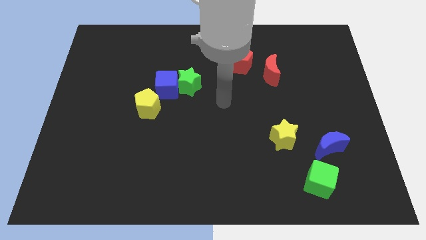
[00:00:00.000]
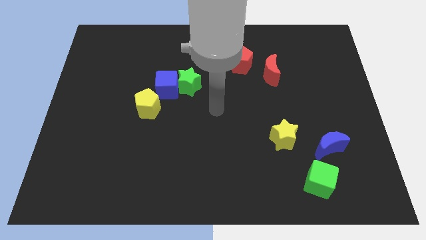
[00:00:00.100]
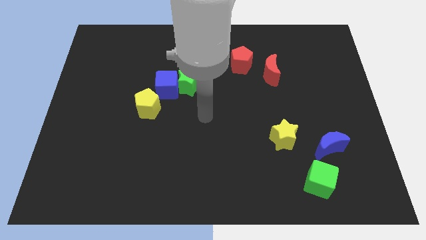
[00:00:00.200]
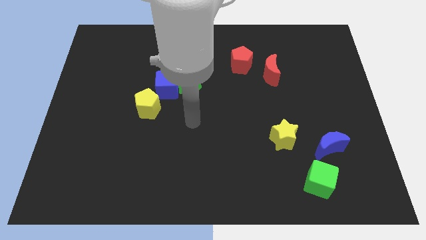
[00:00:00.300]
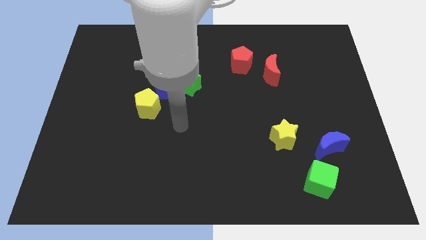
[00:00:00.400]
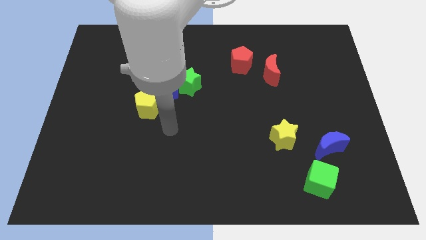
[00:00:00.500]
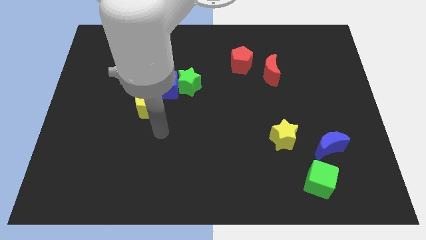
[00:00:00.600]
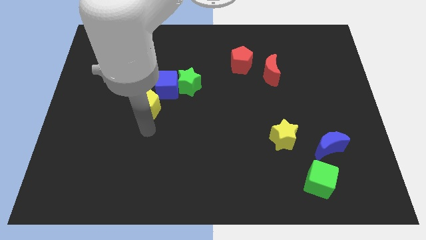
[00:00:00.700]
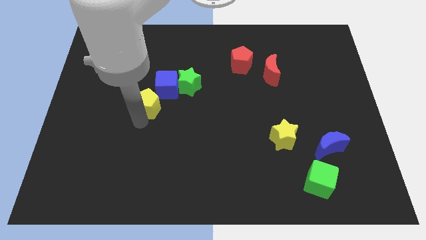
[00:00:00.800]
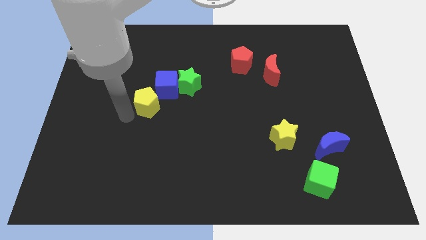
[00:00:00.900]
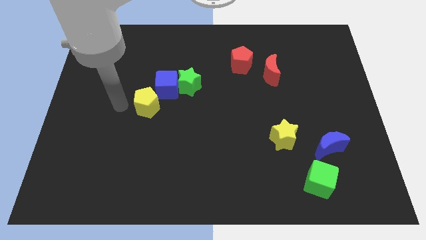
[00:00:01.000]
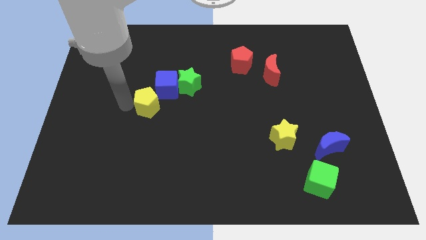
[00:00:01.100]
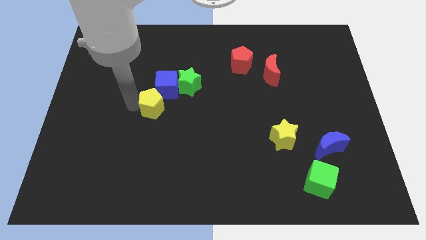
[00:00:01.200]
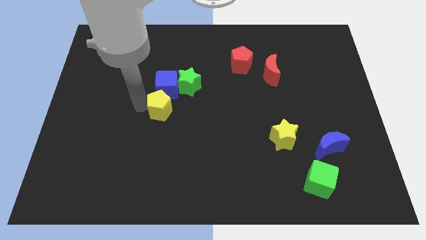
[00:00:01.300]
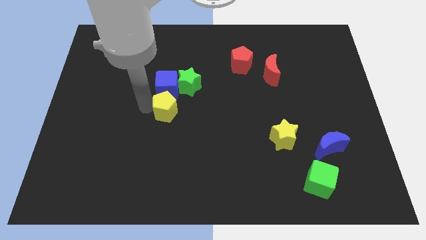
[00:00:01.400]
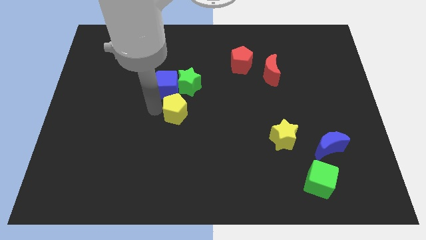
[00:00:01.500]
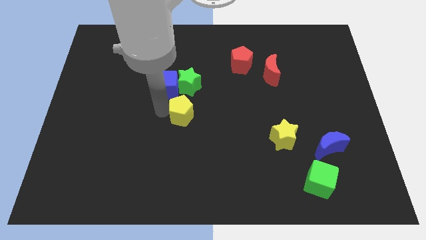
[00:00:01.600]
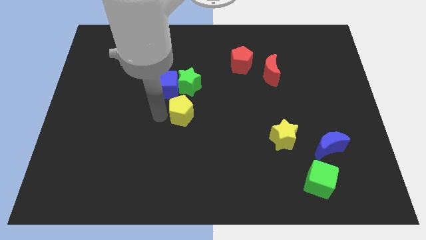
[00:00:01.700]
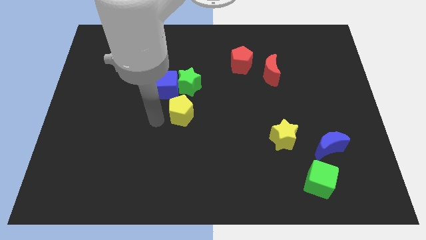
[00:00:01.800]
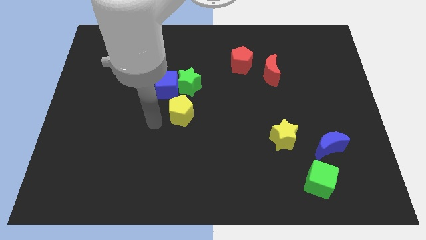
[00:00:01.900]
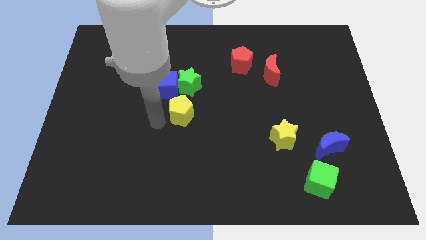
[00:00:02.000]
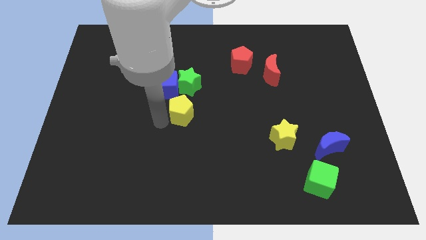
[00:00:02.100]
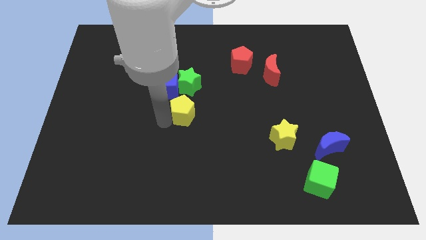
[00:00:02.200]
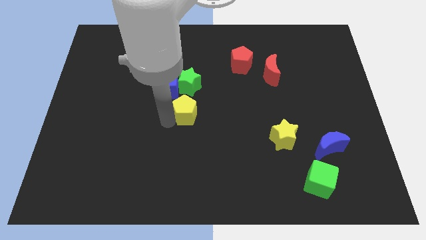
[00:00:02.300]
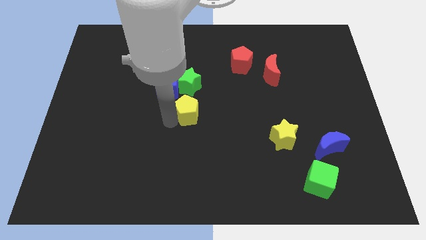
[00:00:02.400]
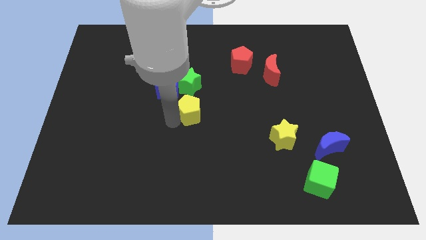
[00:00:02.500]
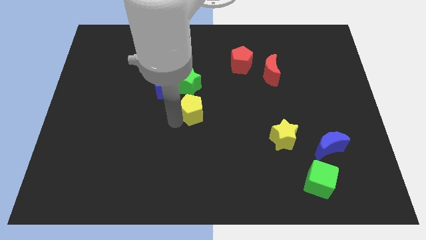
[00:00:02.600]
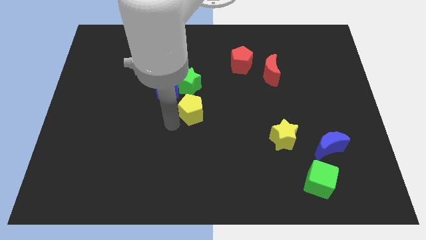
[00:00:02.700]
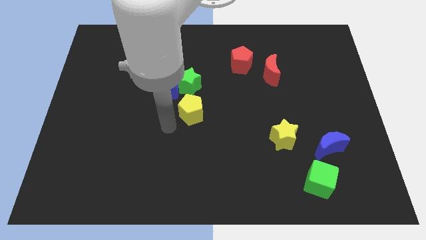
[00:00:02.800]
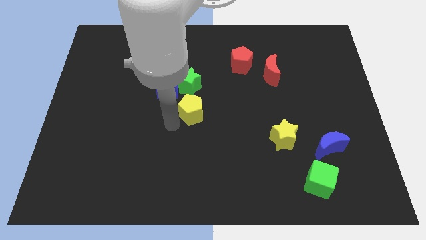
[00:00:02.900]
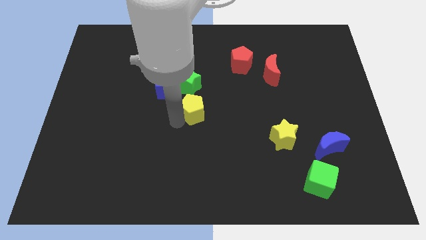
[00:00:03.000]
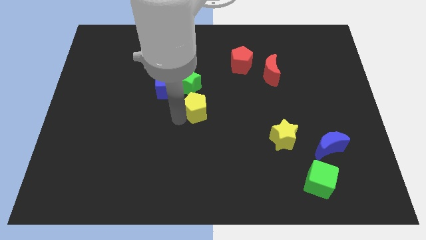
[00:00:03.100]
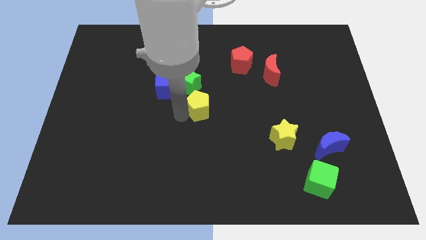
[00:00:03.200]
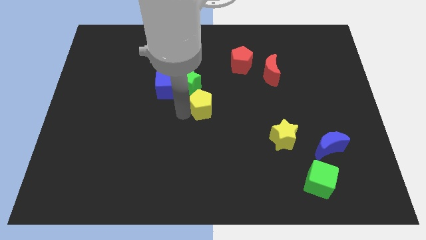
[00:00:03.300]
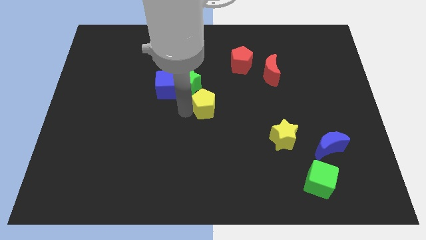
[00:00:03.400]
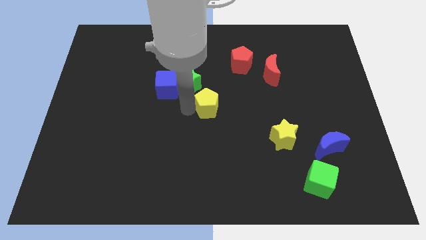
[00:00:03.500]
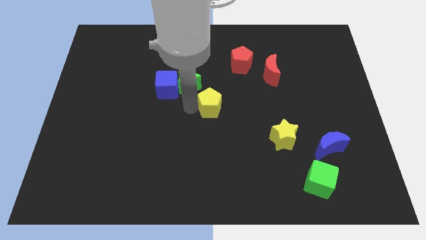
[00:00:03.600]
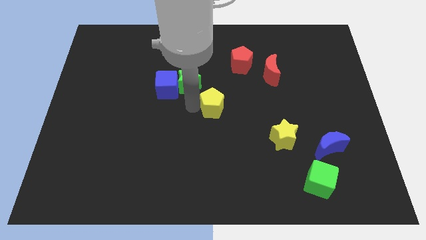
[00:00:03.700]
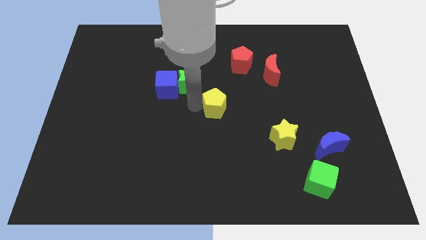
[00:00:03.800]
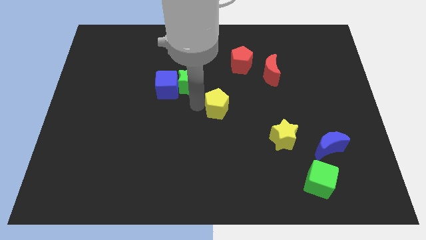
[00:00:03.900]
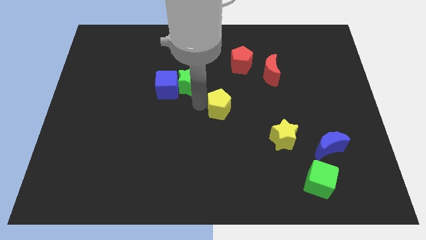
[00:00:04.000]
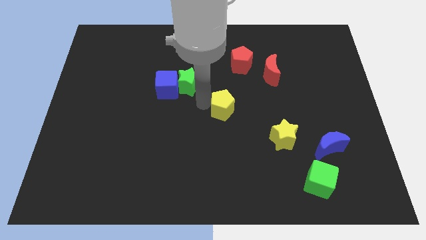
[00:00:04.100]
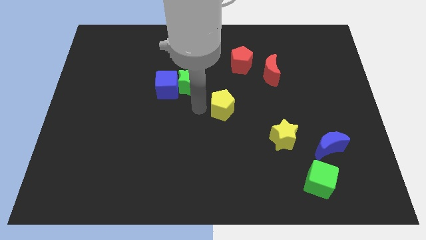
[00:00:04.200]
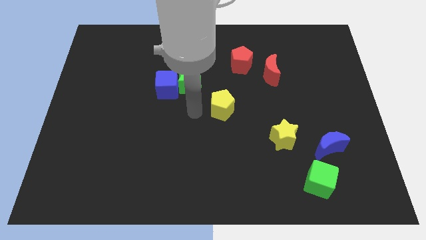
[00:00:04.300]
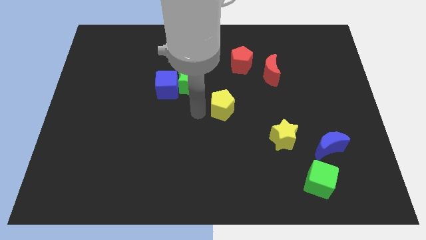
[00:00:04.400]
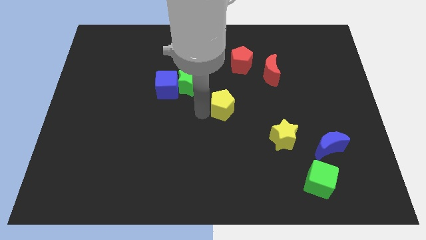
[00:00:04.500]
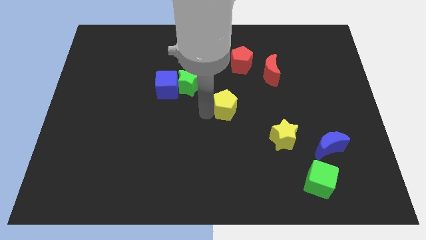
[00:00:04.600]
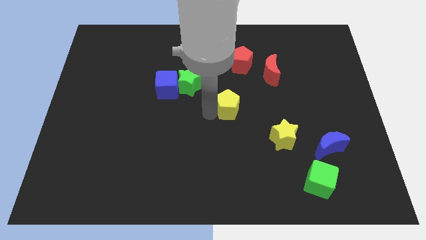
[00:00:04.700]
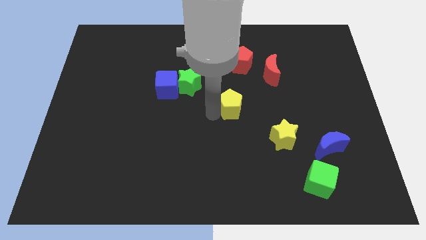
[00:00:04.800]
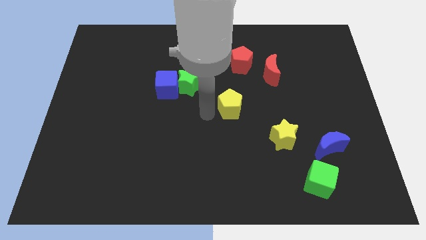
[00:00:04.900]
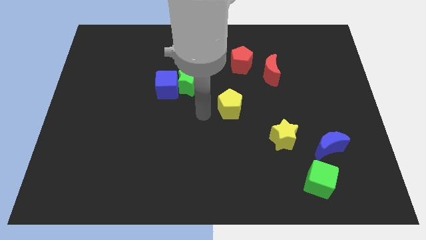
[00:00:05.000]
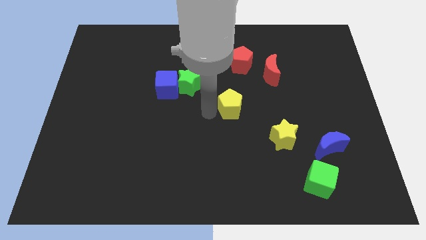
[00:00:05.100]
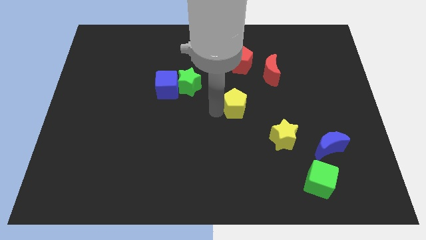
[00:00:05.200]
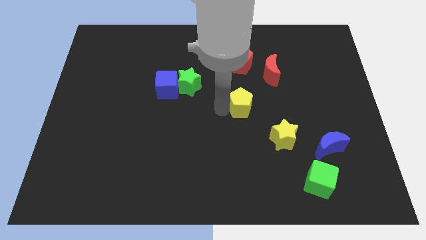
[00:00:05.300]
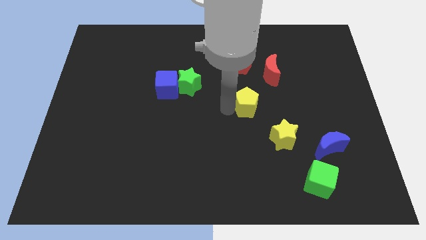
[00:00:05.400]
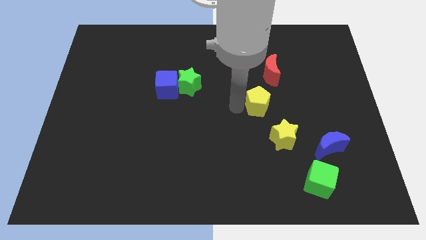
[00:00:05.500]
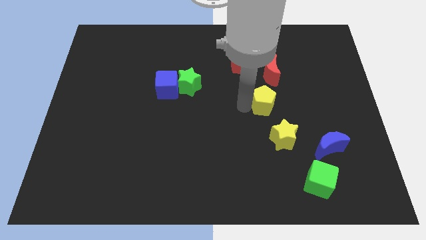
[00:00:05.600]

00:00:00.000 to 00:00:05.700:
slide the yellow pentagon to the top of the yellow star

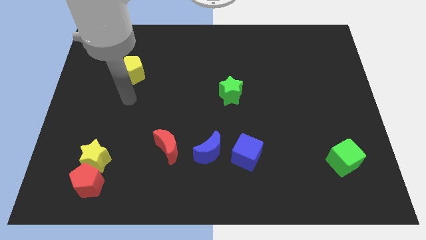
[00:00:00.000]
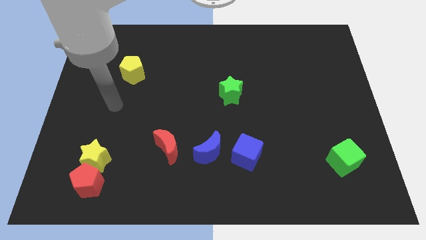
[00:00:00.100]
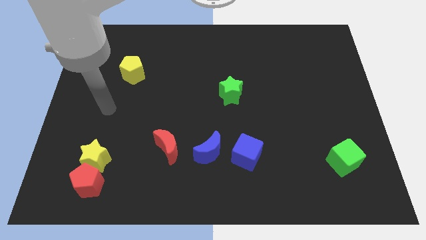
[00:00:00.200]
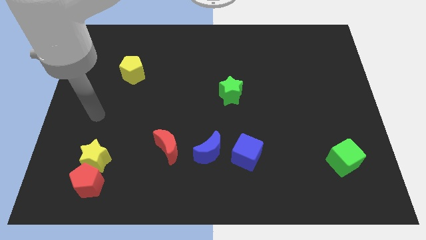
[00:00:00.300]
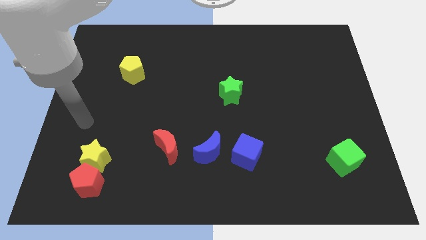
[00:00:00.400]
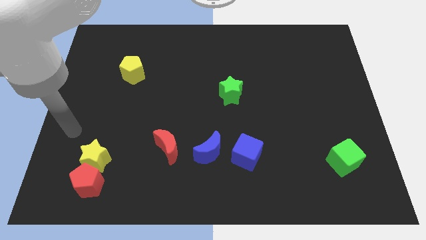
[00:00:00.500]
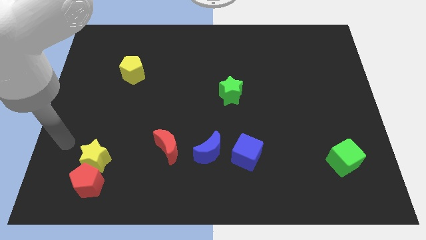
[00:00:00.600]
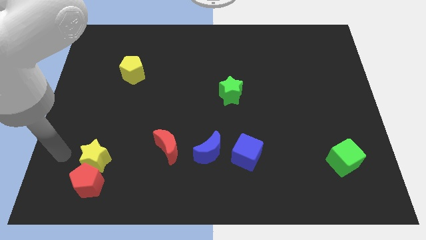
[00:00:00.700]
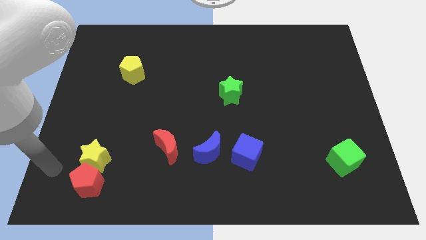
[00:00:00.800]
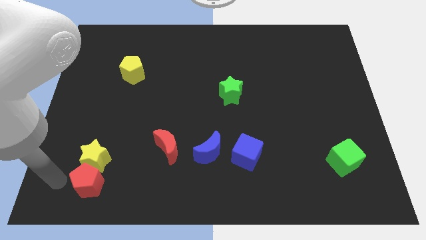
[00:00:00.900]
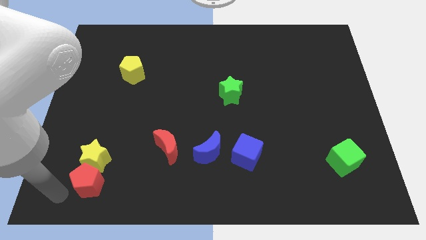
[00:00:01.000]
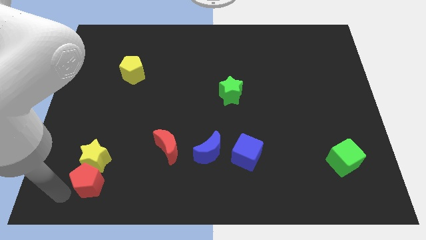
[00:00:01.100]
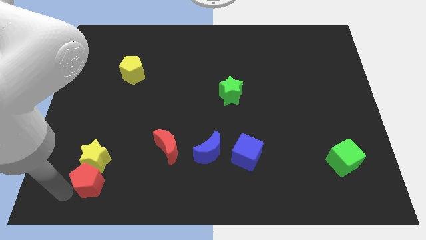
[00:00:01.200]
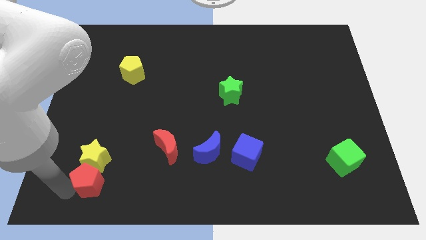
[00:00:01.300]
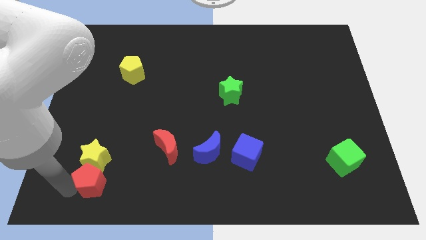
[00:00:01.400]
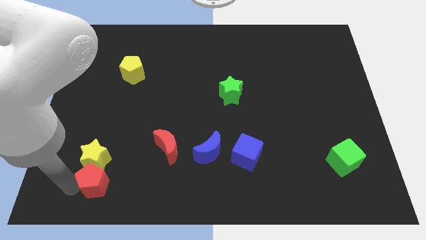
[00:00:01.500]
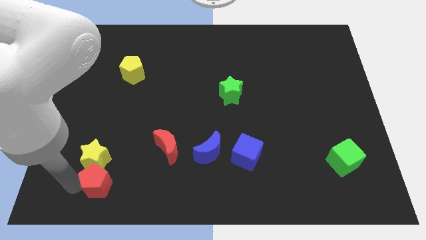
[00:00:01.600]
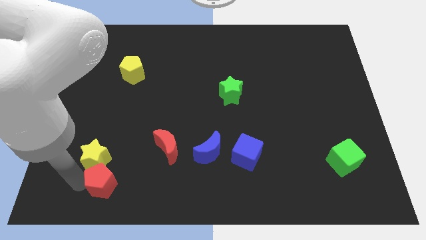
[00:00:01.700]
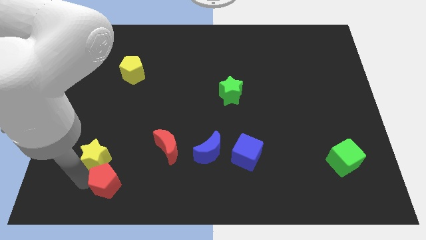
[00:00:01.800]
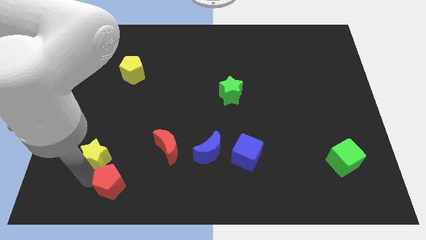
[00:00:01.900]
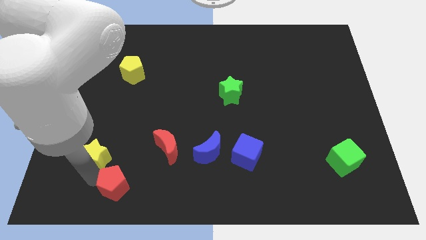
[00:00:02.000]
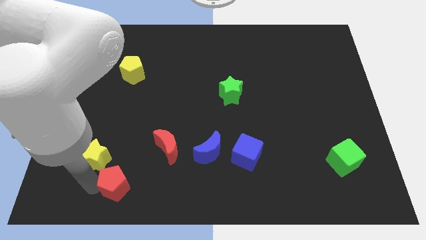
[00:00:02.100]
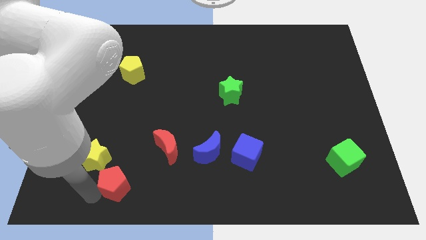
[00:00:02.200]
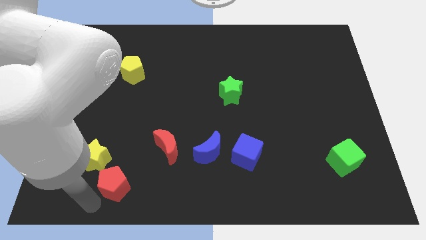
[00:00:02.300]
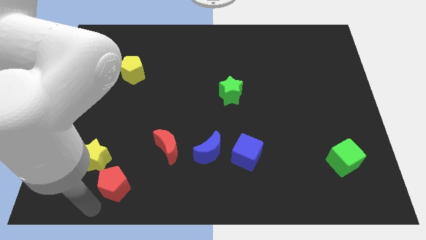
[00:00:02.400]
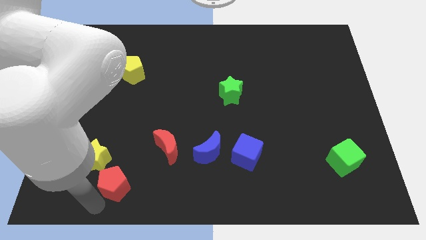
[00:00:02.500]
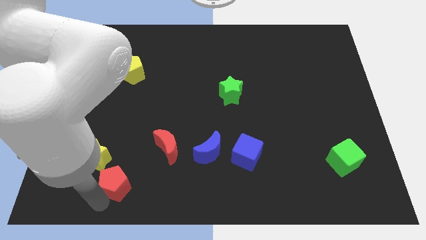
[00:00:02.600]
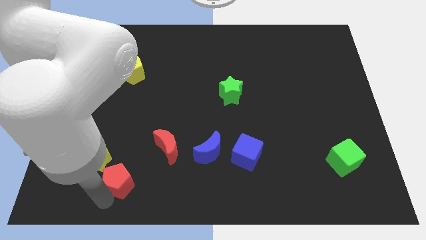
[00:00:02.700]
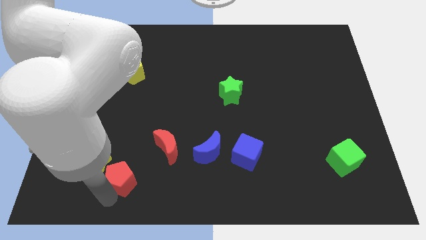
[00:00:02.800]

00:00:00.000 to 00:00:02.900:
push the red pentagon to the right of the yellow star
